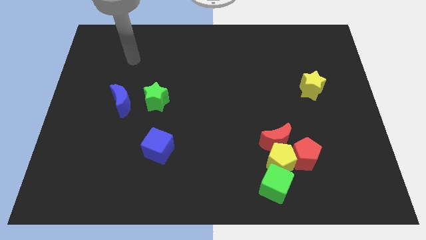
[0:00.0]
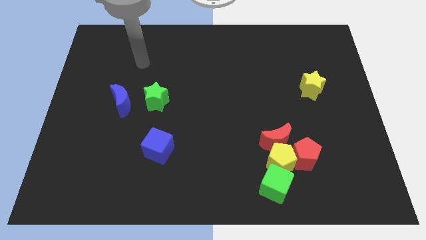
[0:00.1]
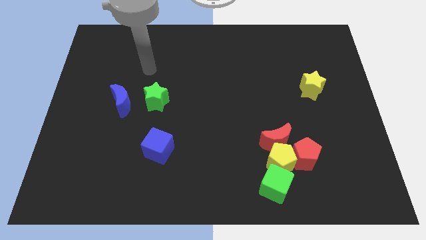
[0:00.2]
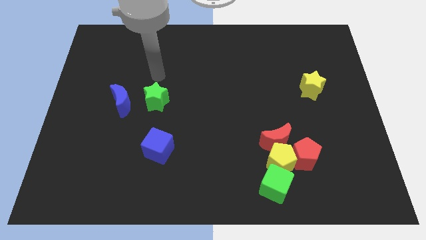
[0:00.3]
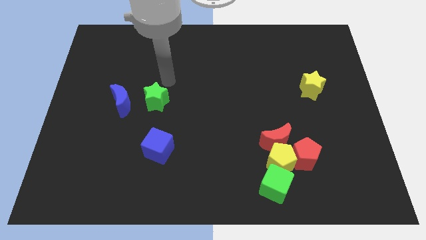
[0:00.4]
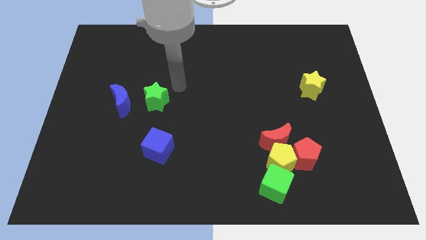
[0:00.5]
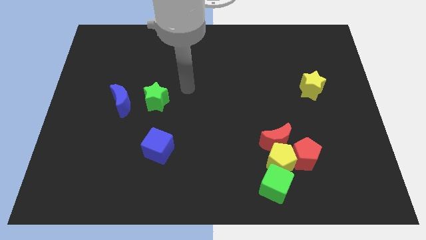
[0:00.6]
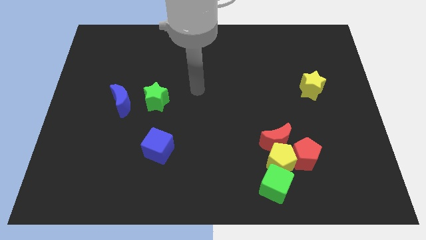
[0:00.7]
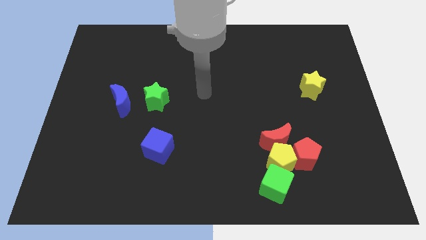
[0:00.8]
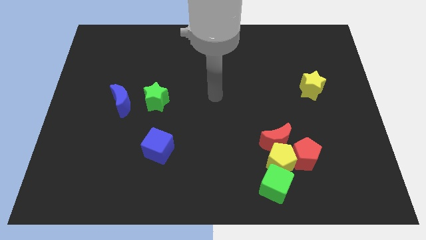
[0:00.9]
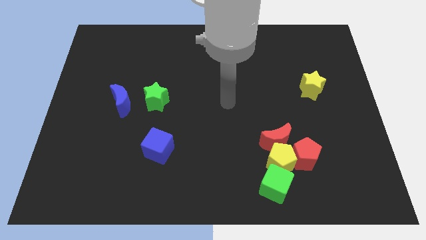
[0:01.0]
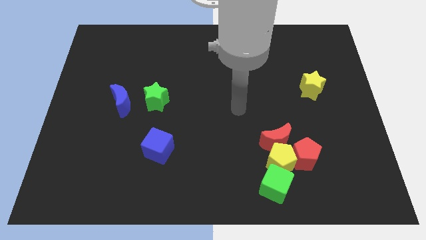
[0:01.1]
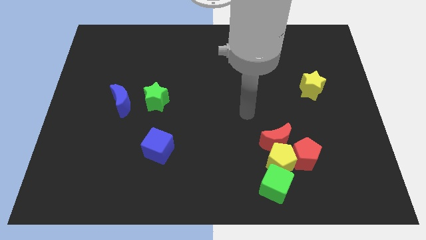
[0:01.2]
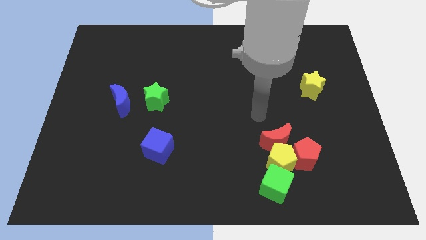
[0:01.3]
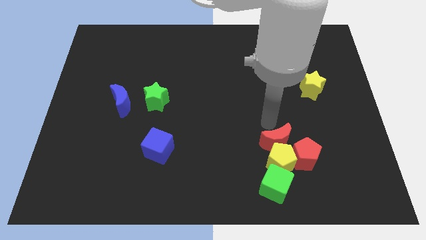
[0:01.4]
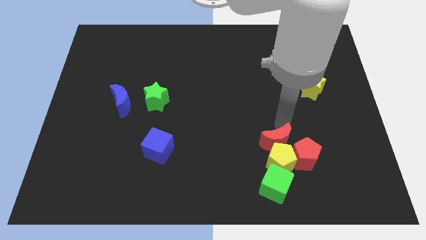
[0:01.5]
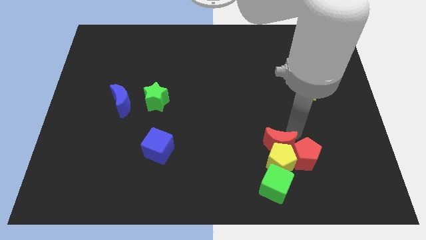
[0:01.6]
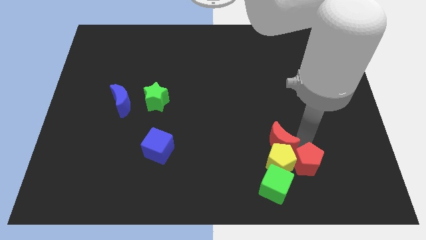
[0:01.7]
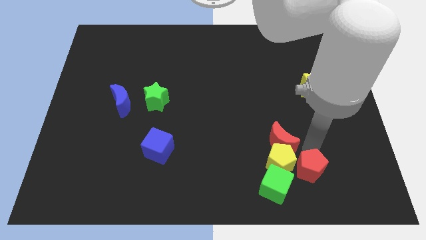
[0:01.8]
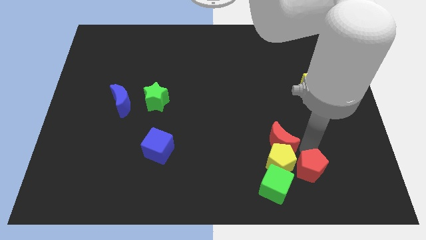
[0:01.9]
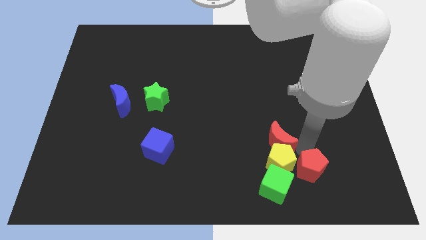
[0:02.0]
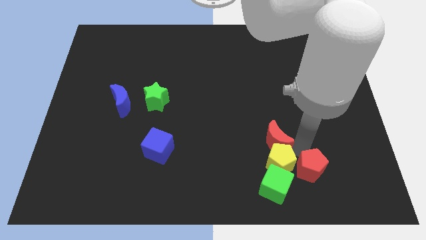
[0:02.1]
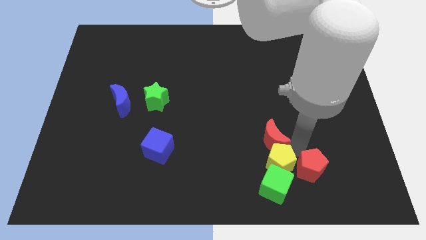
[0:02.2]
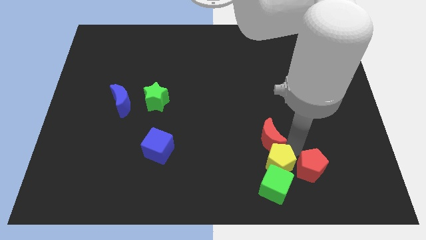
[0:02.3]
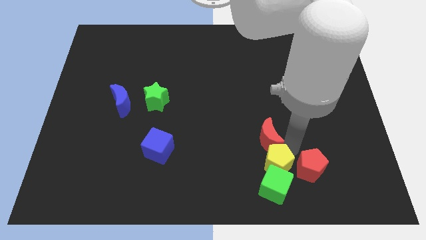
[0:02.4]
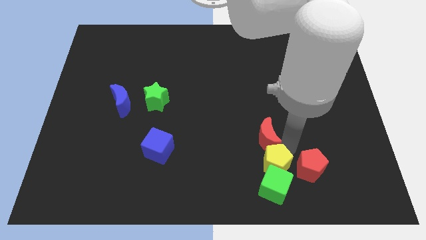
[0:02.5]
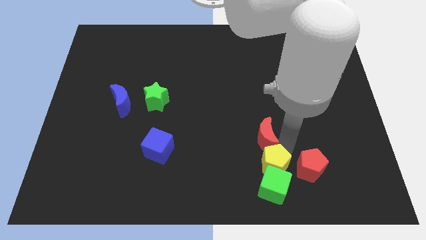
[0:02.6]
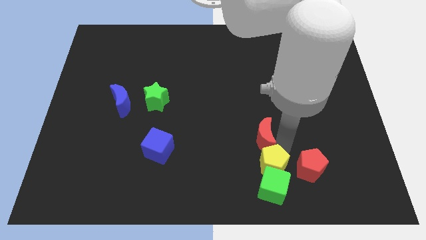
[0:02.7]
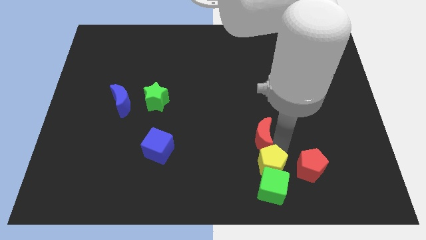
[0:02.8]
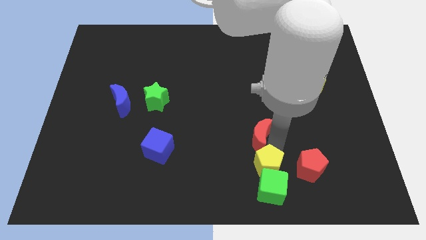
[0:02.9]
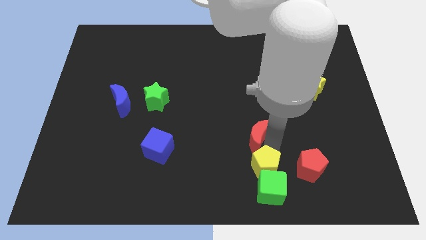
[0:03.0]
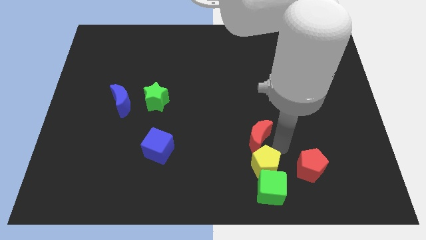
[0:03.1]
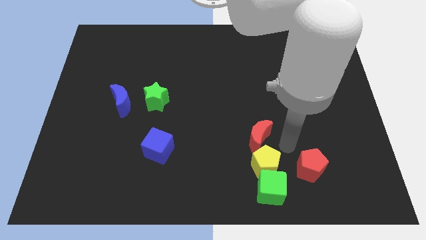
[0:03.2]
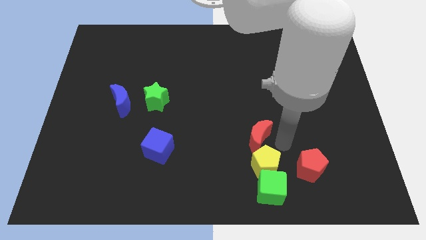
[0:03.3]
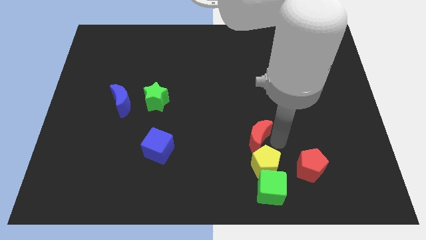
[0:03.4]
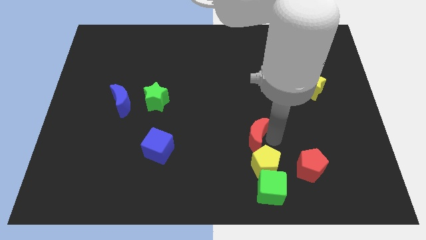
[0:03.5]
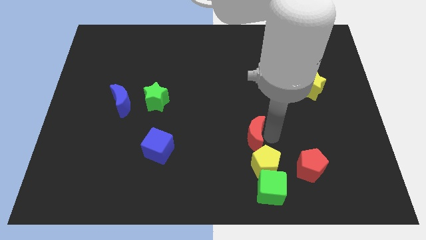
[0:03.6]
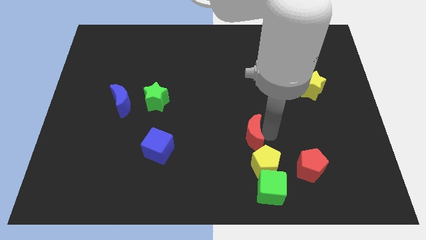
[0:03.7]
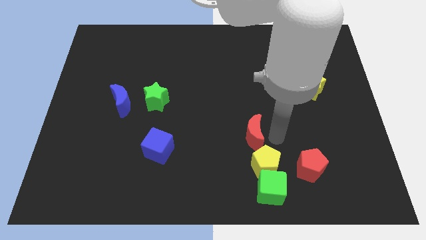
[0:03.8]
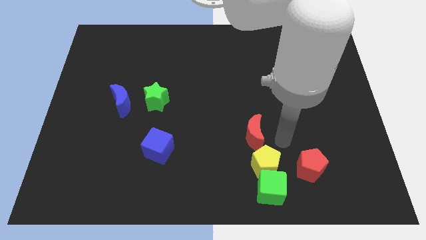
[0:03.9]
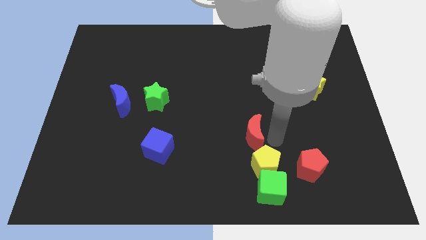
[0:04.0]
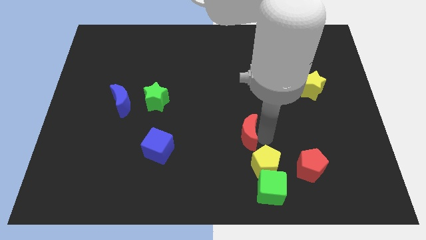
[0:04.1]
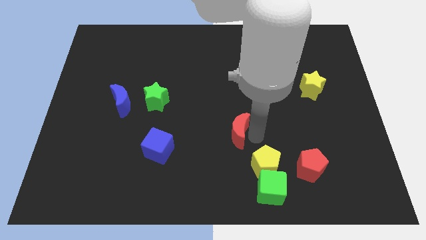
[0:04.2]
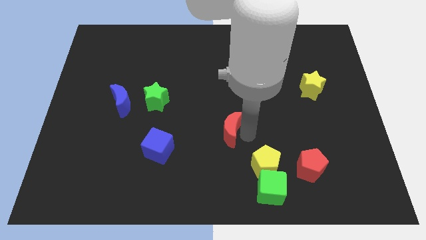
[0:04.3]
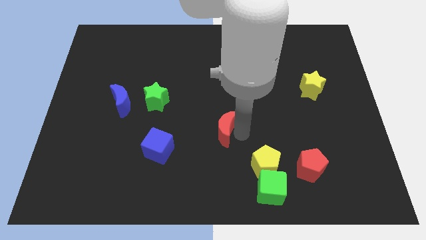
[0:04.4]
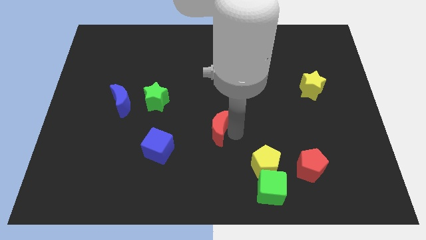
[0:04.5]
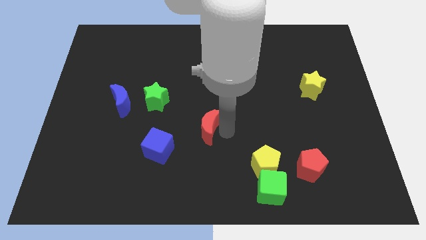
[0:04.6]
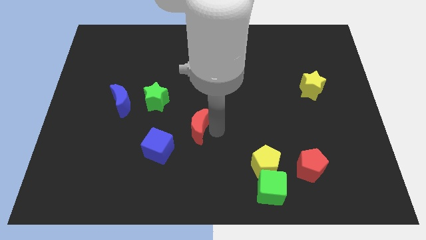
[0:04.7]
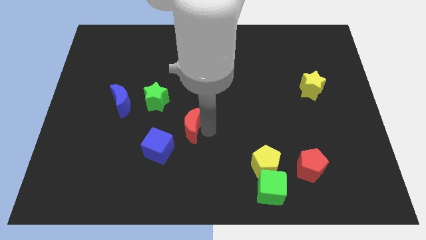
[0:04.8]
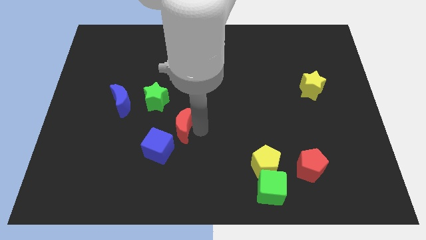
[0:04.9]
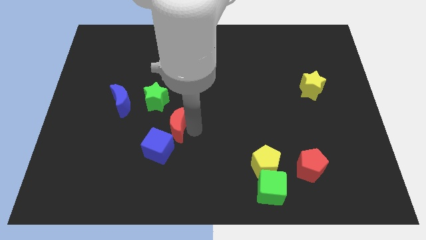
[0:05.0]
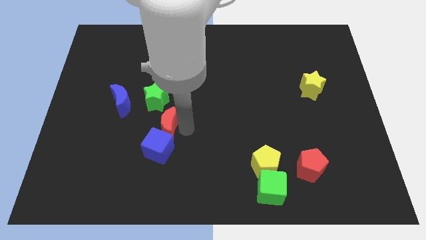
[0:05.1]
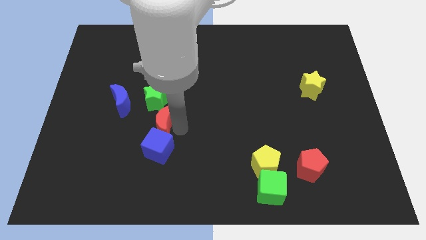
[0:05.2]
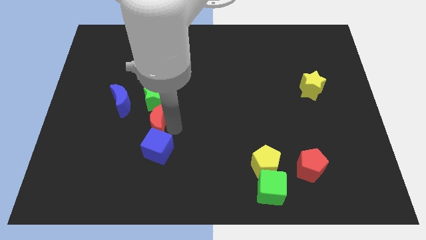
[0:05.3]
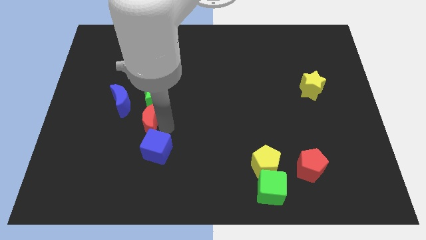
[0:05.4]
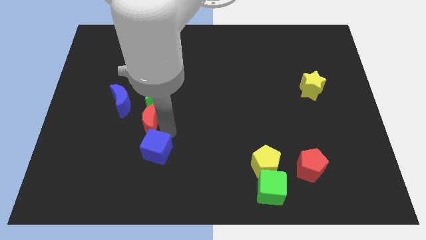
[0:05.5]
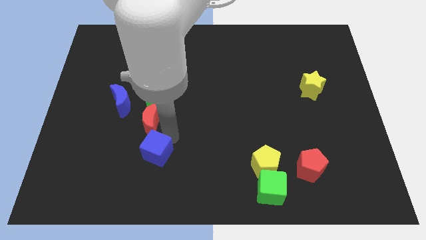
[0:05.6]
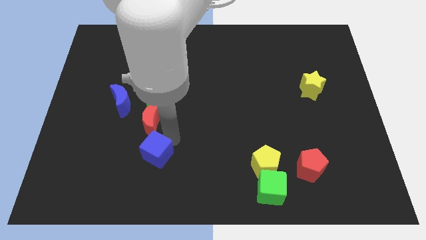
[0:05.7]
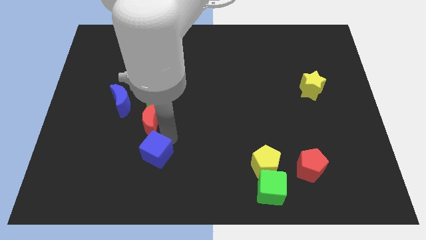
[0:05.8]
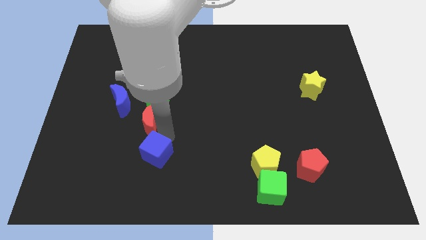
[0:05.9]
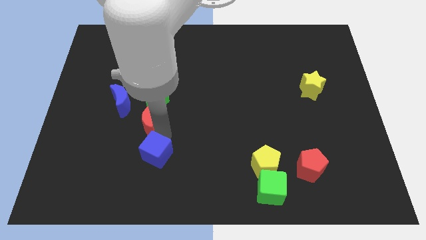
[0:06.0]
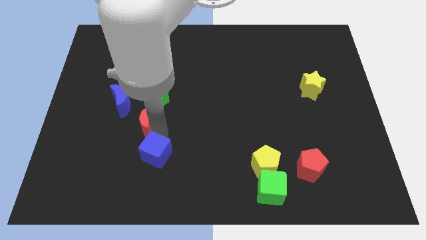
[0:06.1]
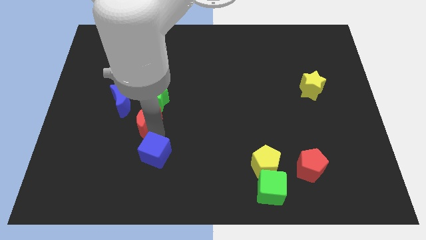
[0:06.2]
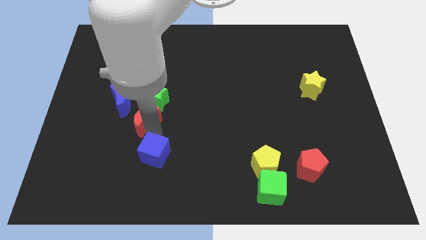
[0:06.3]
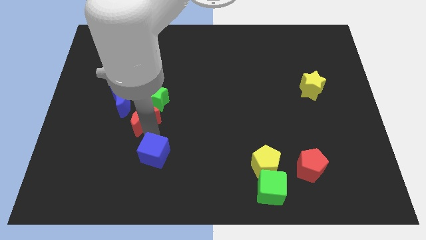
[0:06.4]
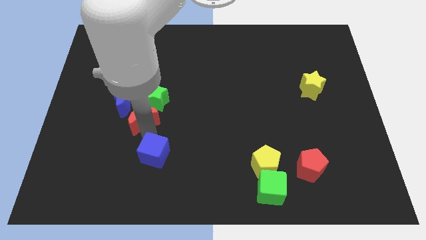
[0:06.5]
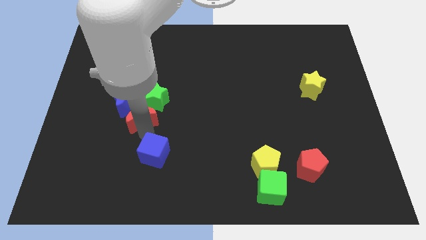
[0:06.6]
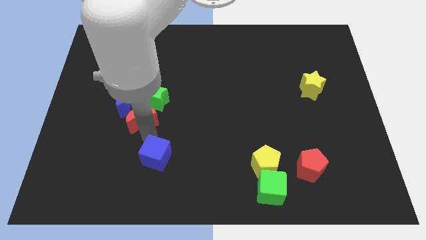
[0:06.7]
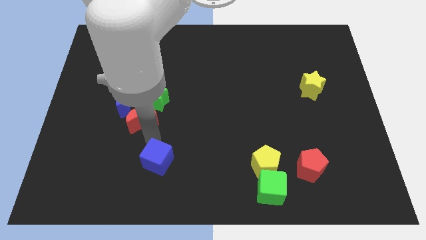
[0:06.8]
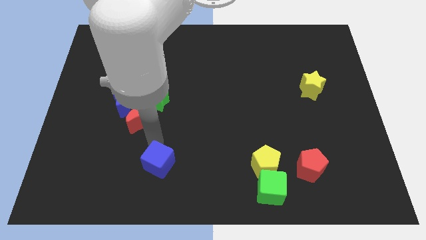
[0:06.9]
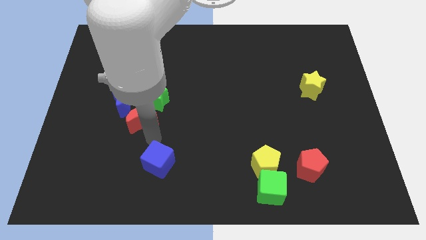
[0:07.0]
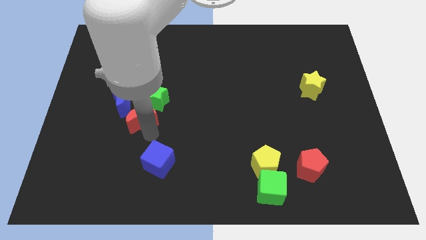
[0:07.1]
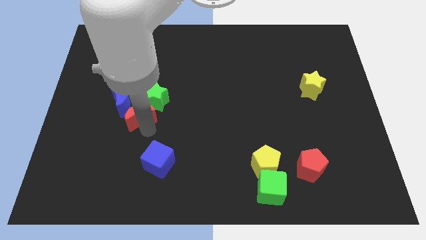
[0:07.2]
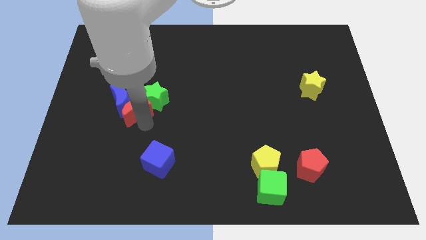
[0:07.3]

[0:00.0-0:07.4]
put the red moon next to the blue moon
